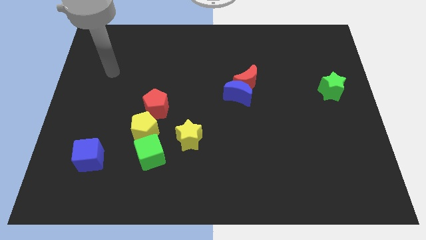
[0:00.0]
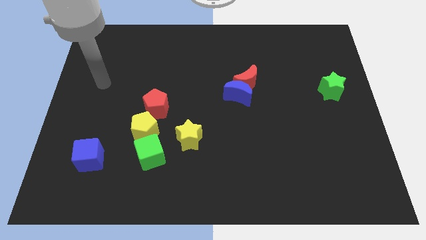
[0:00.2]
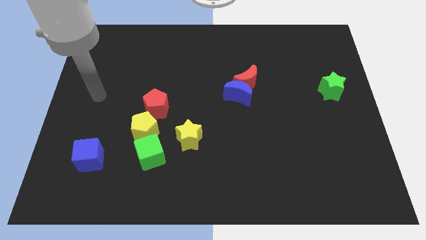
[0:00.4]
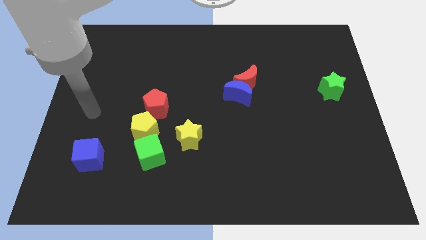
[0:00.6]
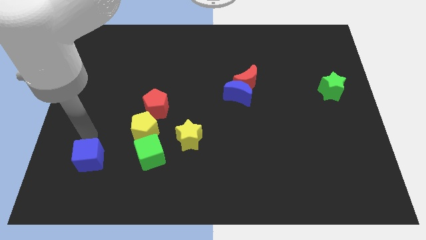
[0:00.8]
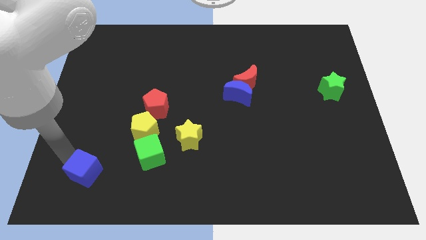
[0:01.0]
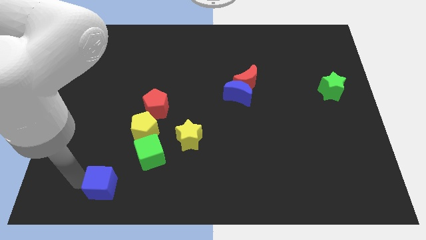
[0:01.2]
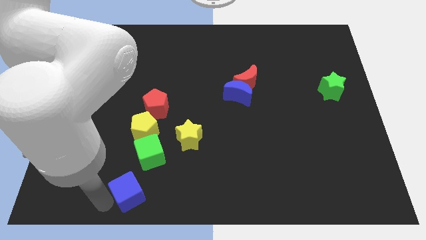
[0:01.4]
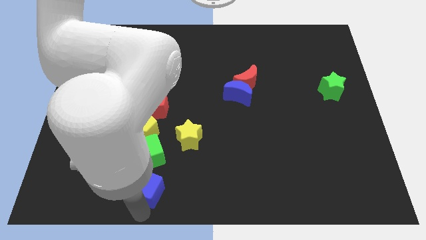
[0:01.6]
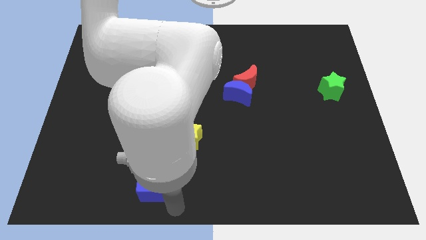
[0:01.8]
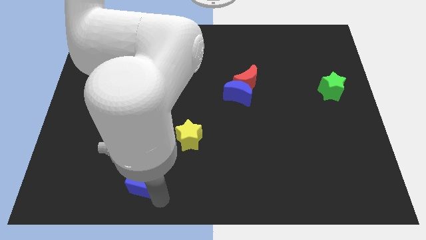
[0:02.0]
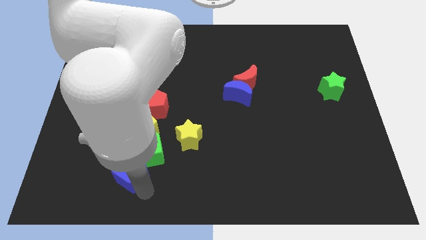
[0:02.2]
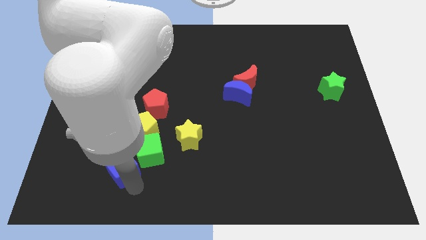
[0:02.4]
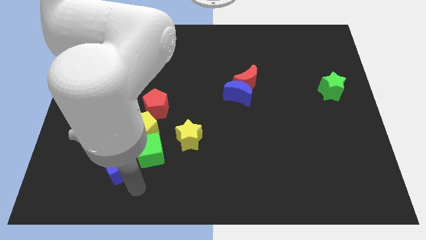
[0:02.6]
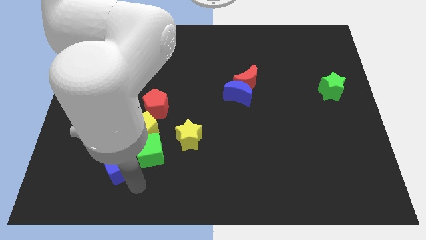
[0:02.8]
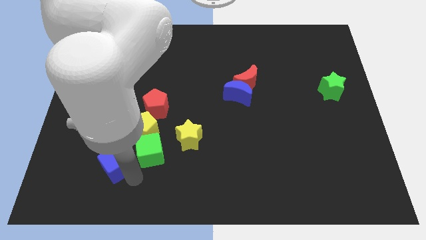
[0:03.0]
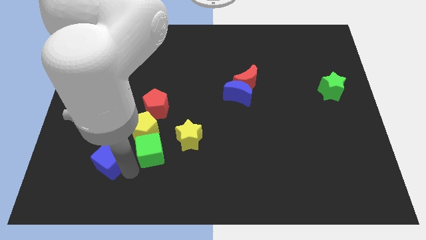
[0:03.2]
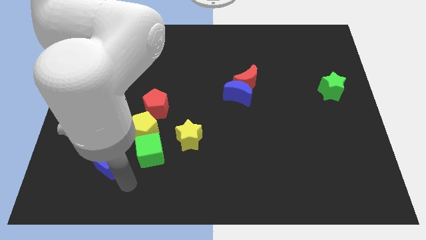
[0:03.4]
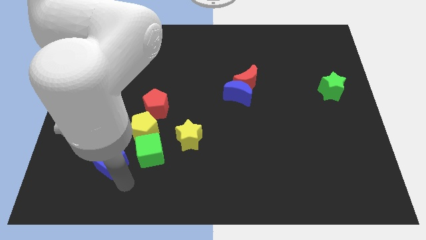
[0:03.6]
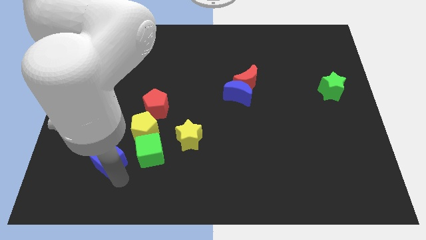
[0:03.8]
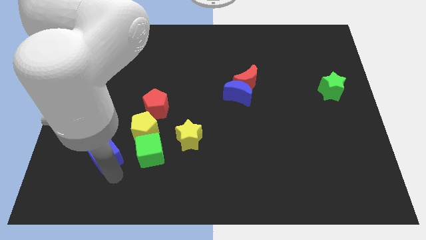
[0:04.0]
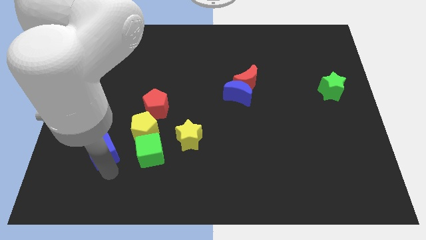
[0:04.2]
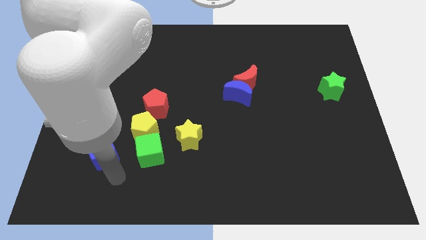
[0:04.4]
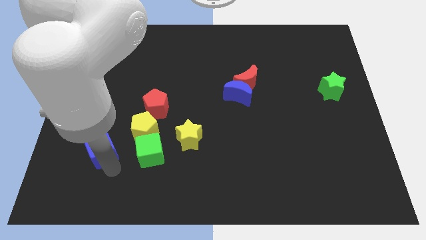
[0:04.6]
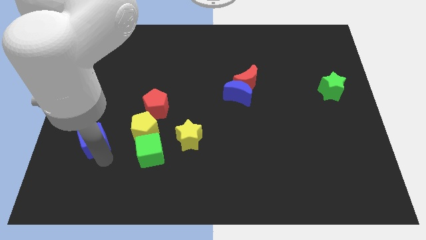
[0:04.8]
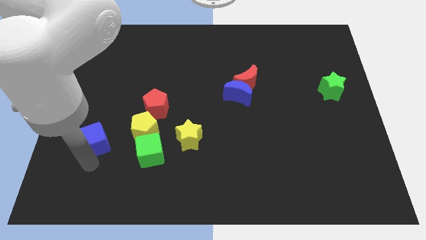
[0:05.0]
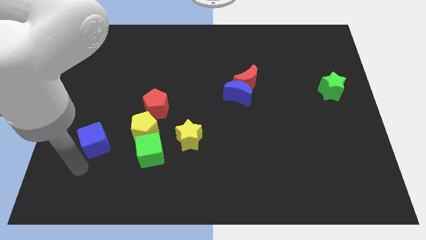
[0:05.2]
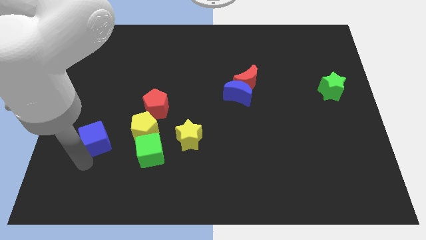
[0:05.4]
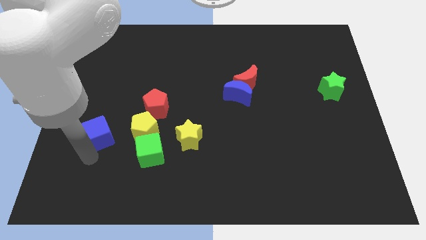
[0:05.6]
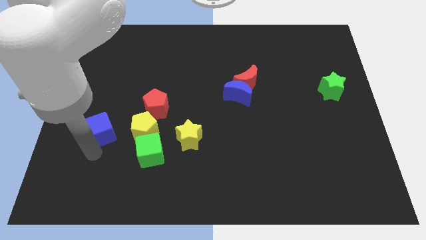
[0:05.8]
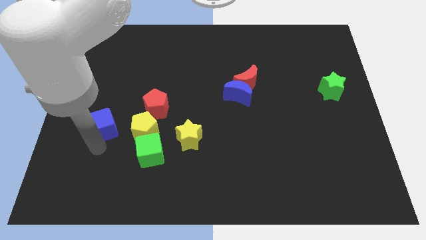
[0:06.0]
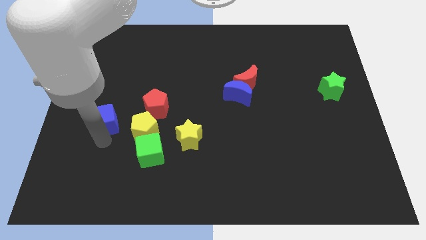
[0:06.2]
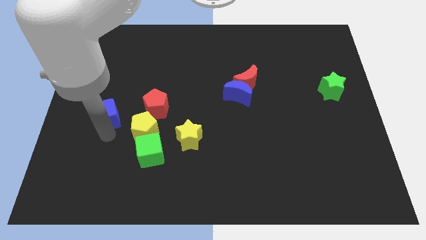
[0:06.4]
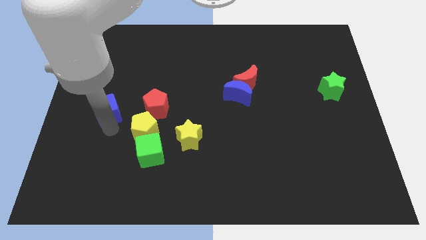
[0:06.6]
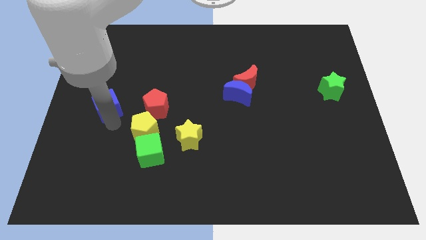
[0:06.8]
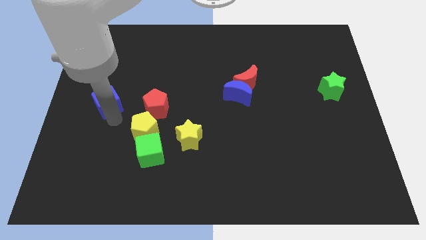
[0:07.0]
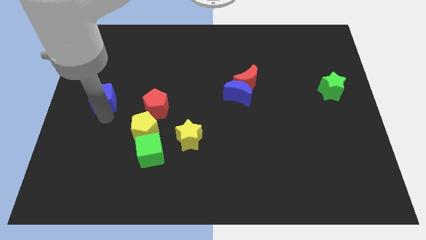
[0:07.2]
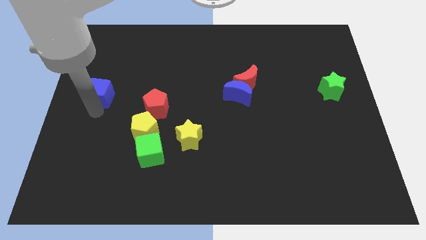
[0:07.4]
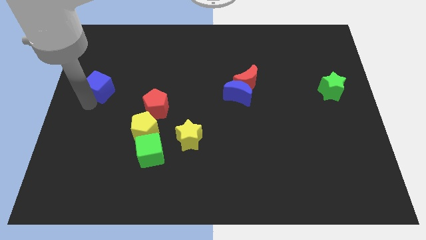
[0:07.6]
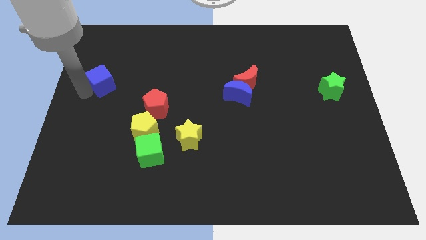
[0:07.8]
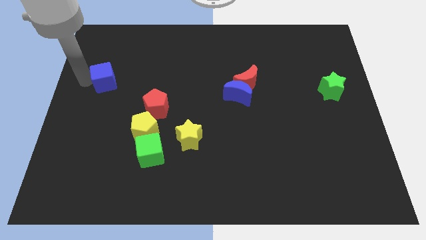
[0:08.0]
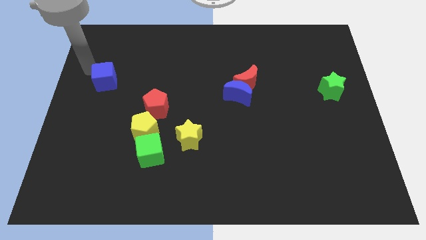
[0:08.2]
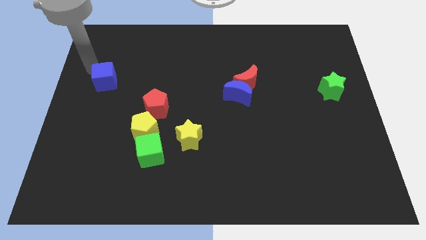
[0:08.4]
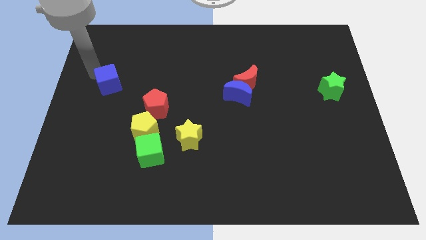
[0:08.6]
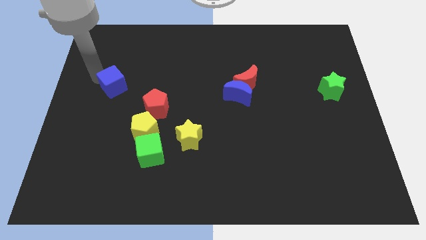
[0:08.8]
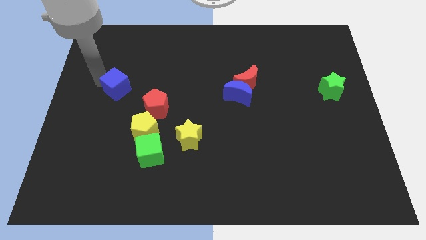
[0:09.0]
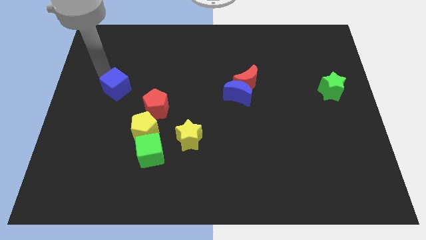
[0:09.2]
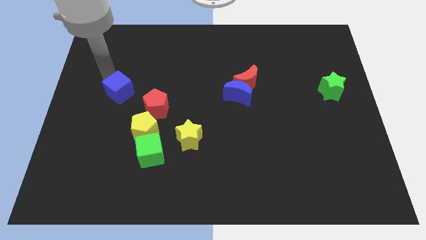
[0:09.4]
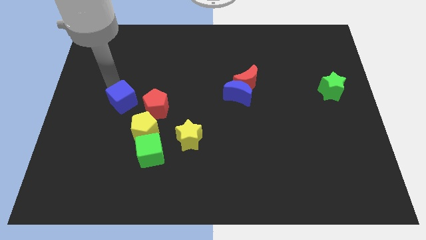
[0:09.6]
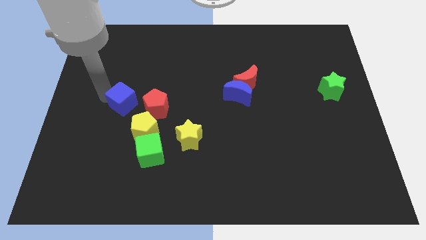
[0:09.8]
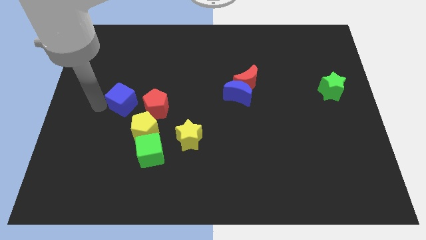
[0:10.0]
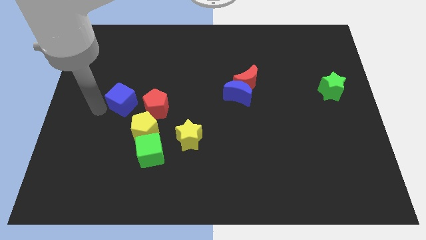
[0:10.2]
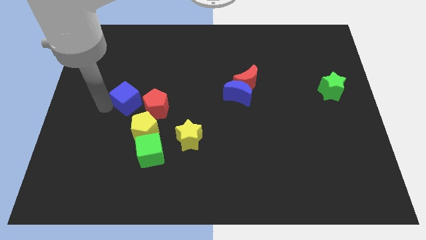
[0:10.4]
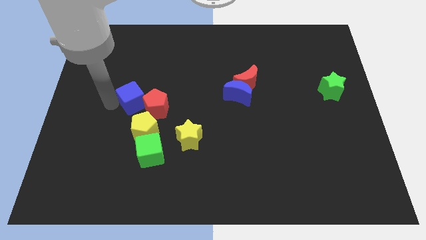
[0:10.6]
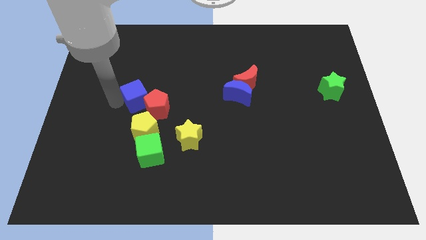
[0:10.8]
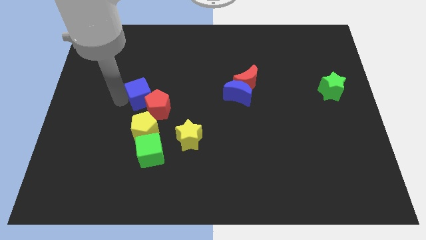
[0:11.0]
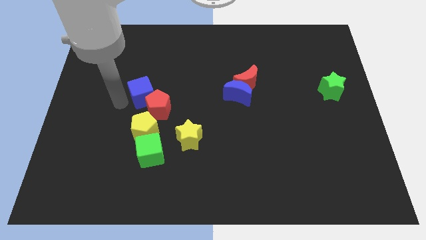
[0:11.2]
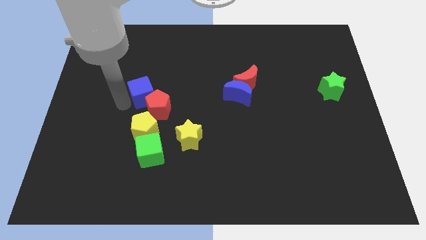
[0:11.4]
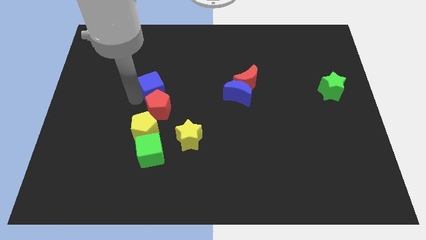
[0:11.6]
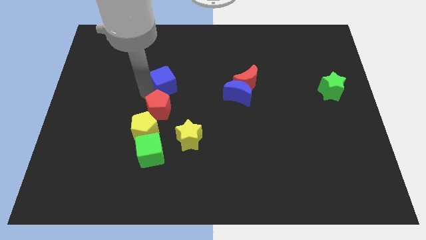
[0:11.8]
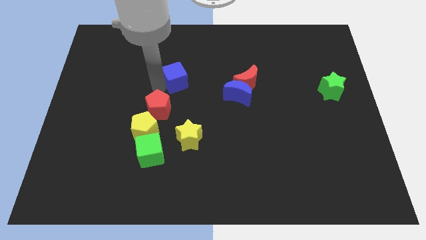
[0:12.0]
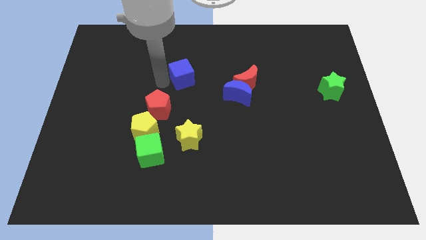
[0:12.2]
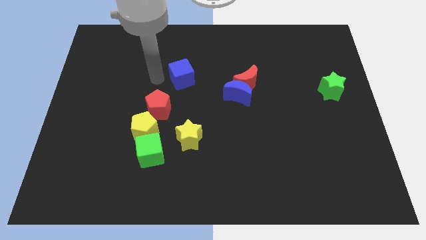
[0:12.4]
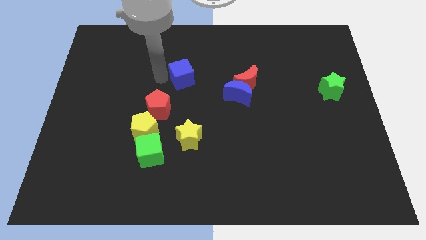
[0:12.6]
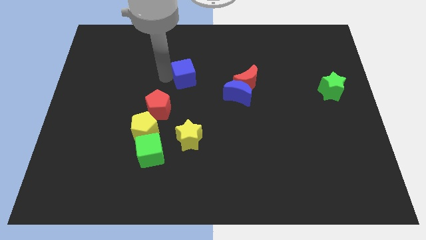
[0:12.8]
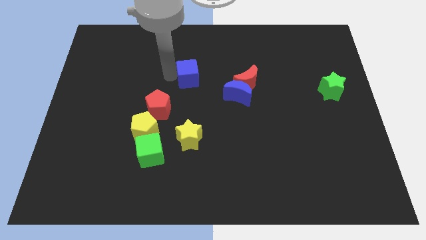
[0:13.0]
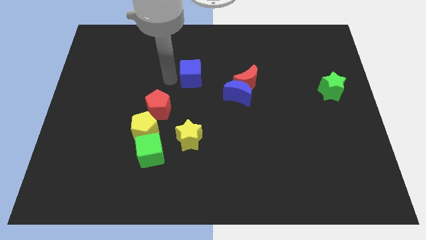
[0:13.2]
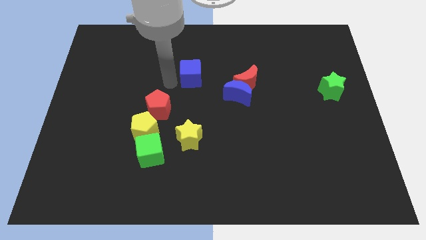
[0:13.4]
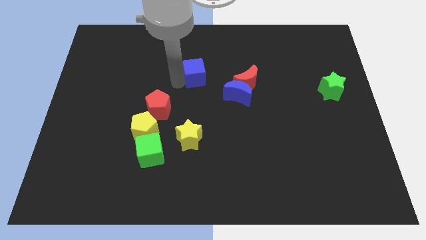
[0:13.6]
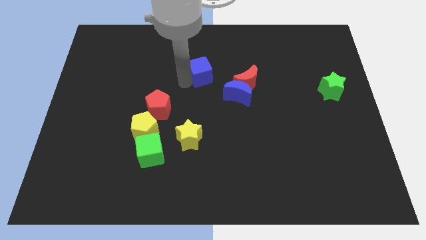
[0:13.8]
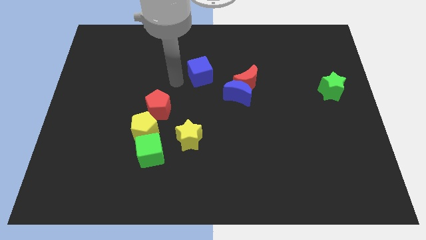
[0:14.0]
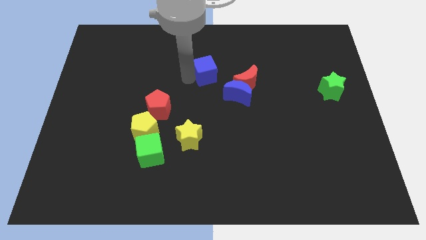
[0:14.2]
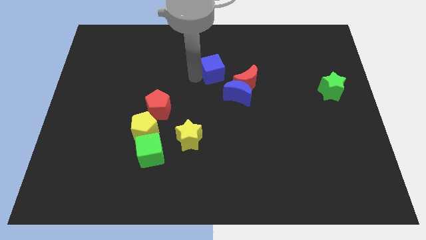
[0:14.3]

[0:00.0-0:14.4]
move the blue cube to the top left side of the red moon

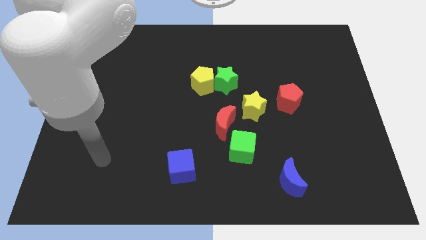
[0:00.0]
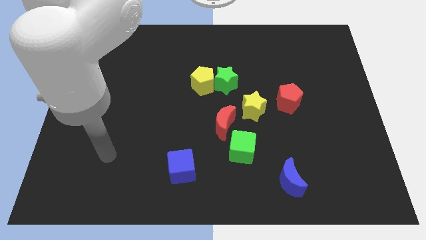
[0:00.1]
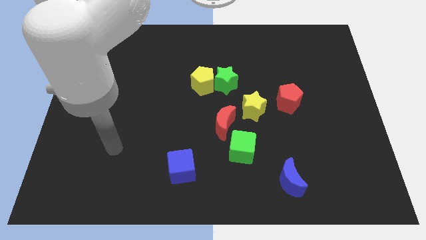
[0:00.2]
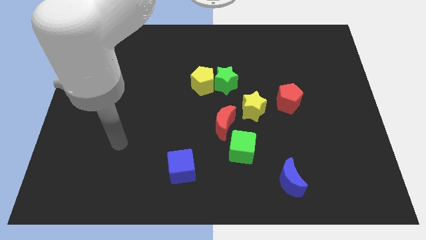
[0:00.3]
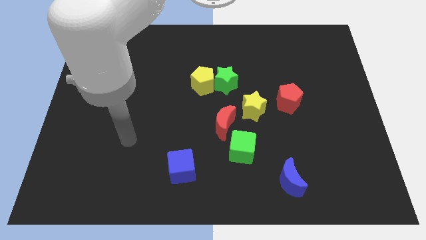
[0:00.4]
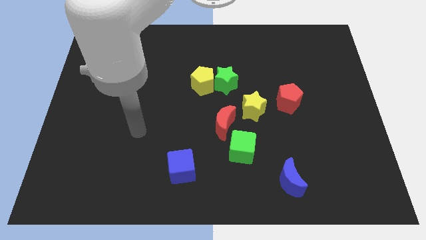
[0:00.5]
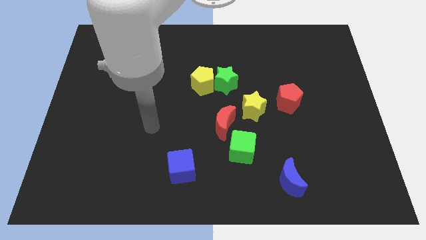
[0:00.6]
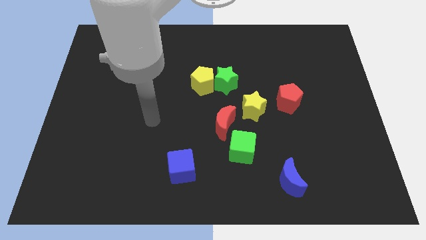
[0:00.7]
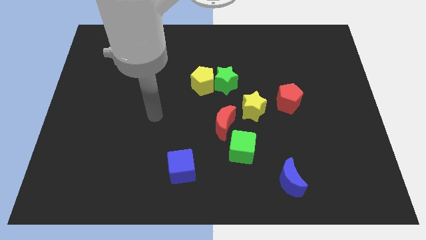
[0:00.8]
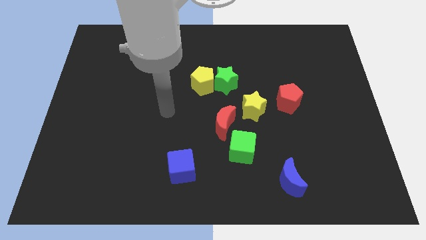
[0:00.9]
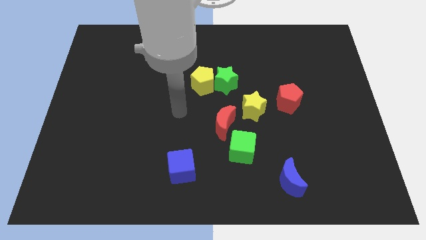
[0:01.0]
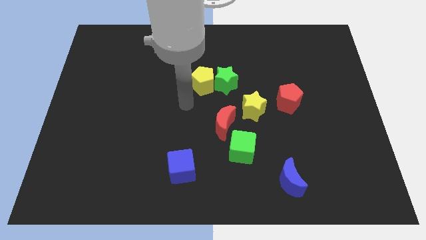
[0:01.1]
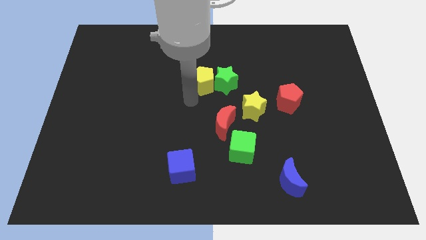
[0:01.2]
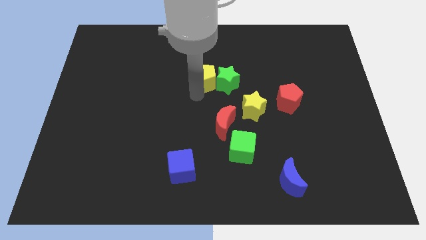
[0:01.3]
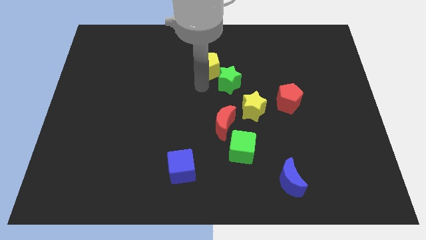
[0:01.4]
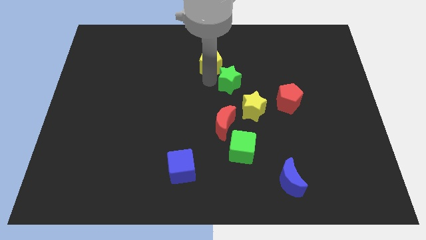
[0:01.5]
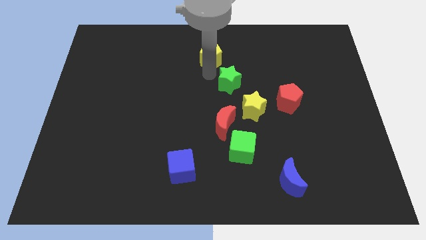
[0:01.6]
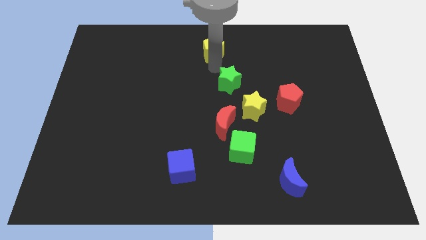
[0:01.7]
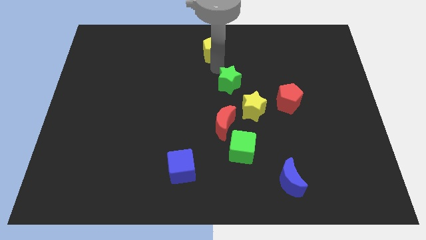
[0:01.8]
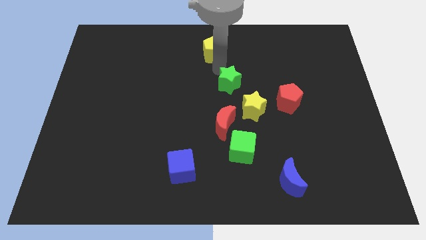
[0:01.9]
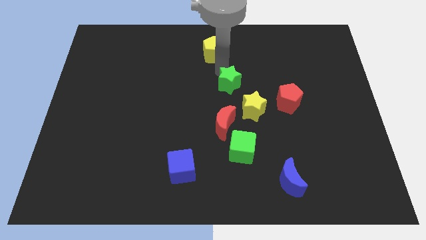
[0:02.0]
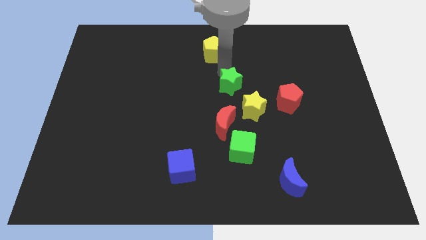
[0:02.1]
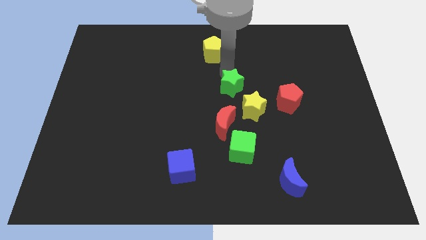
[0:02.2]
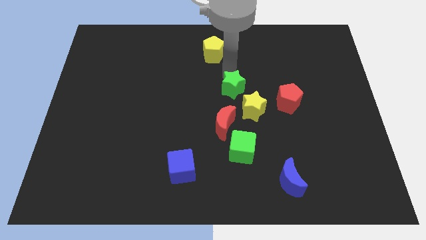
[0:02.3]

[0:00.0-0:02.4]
push the green star just left of the red pentagon
